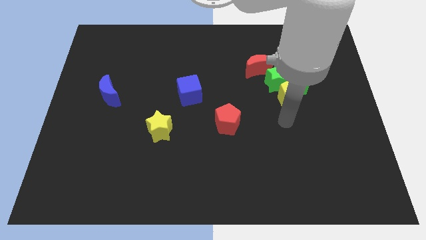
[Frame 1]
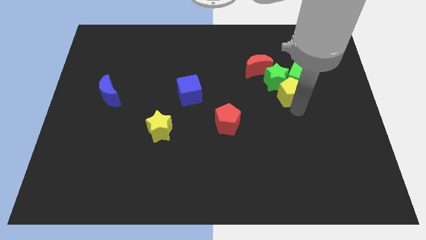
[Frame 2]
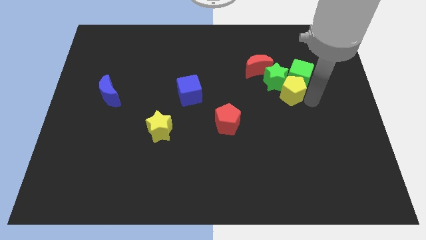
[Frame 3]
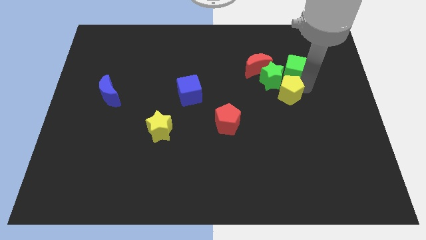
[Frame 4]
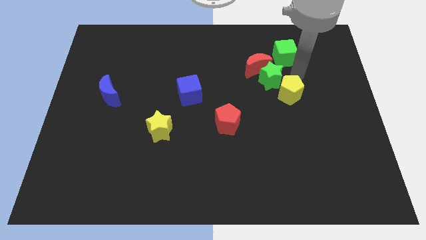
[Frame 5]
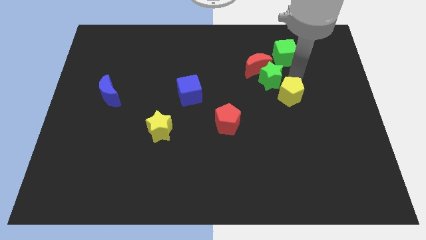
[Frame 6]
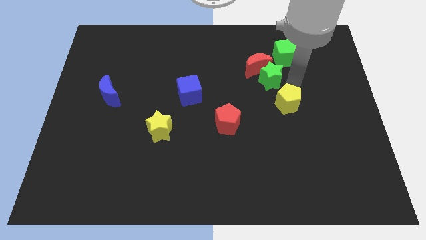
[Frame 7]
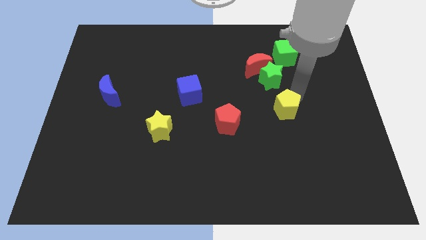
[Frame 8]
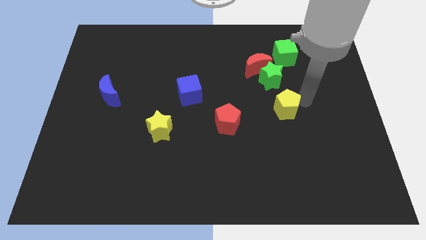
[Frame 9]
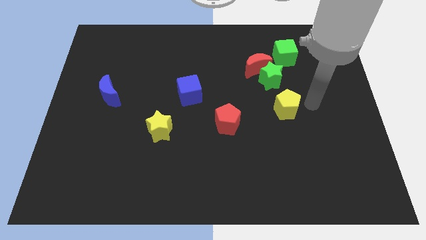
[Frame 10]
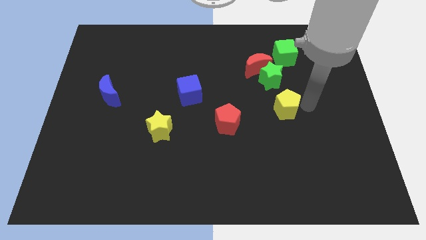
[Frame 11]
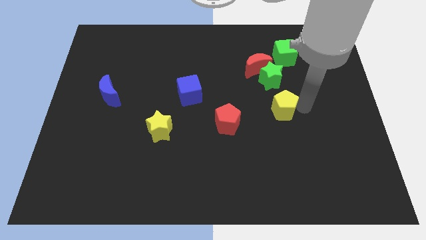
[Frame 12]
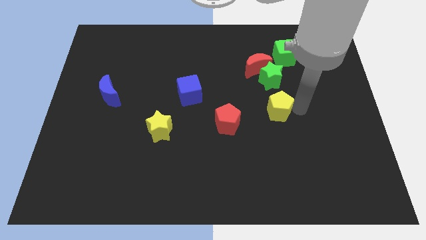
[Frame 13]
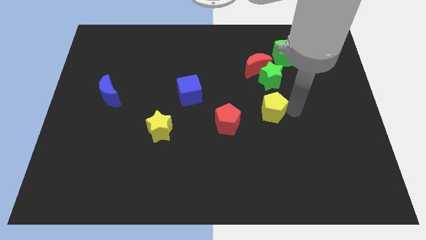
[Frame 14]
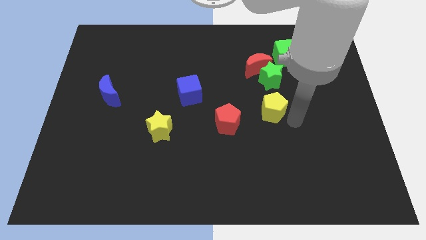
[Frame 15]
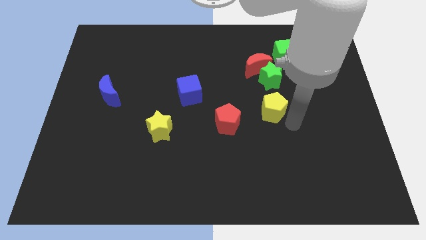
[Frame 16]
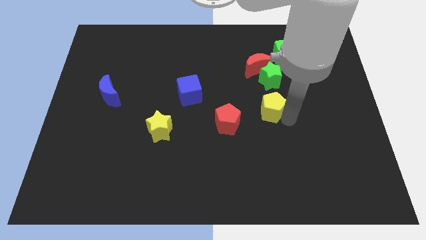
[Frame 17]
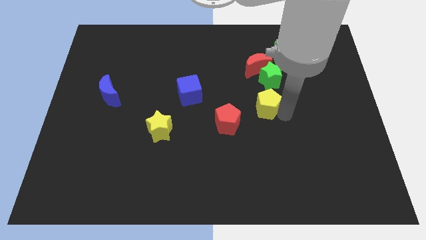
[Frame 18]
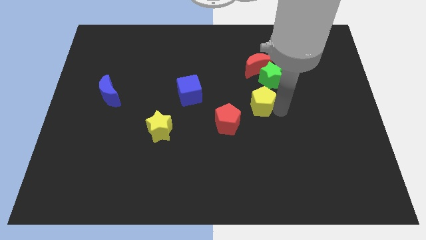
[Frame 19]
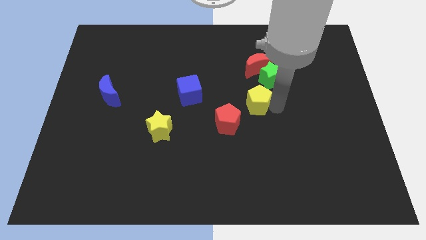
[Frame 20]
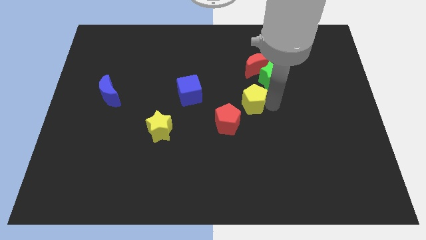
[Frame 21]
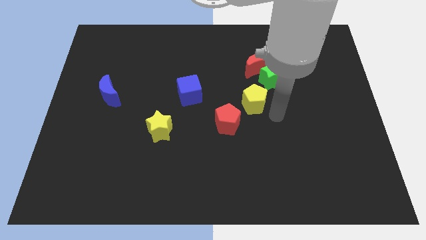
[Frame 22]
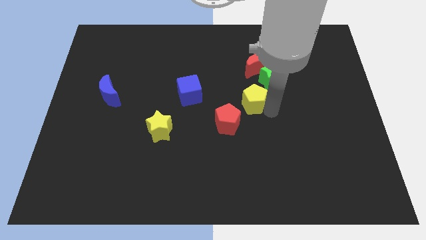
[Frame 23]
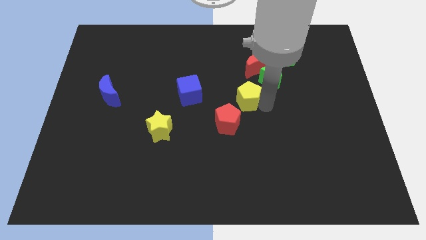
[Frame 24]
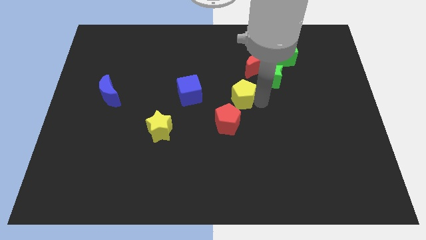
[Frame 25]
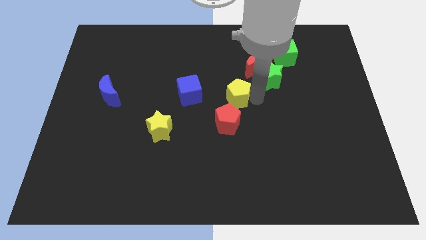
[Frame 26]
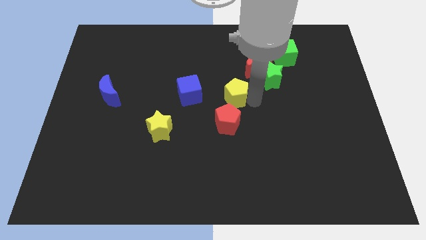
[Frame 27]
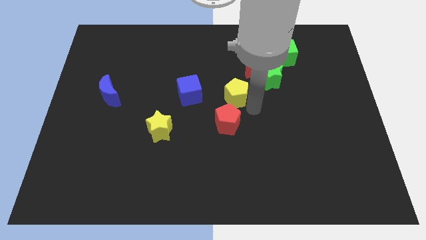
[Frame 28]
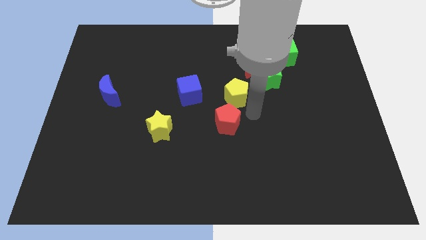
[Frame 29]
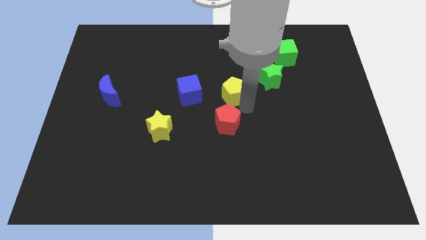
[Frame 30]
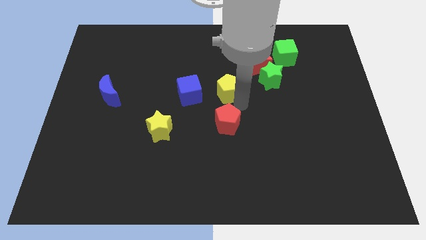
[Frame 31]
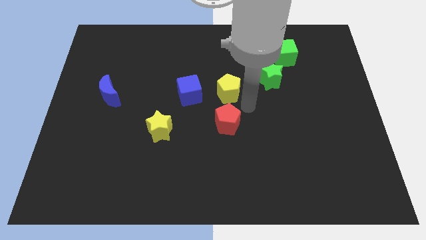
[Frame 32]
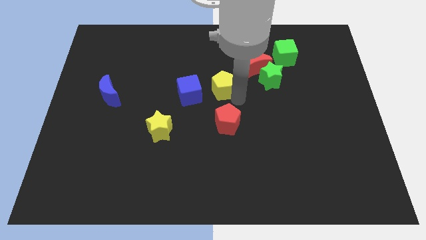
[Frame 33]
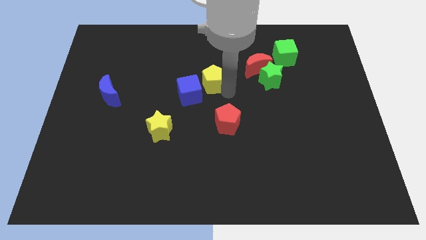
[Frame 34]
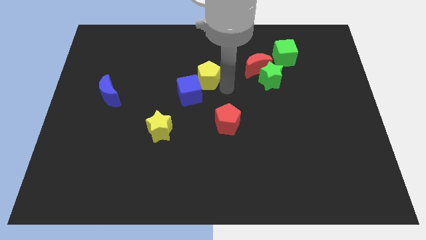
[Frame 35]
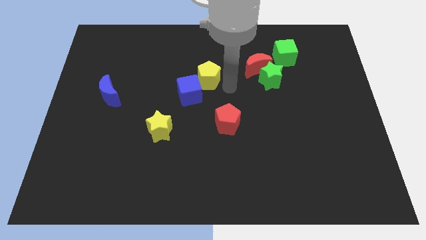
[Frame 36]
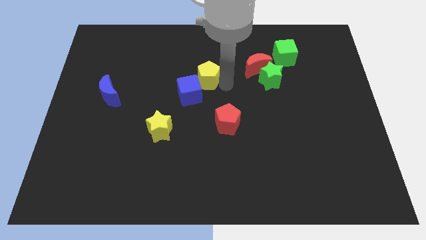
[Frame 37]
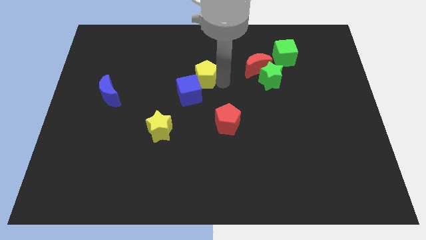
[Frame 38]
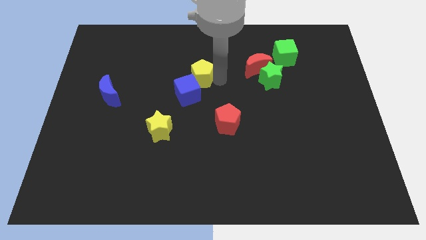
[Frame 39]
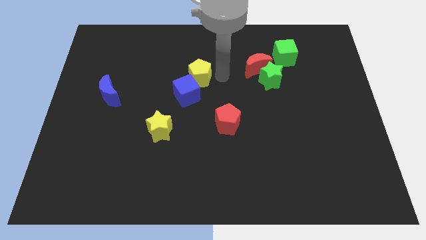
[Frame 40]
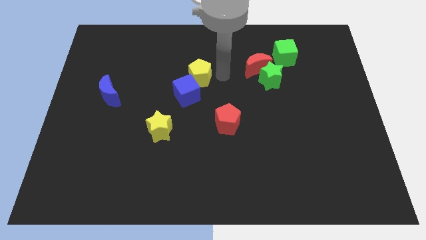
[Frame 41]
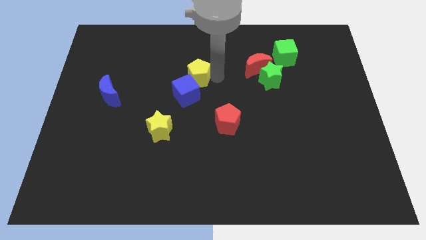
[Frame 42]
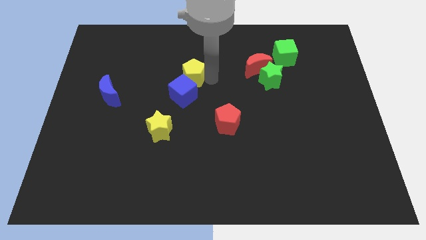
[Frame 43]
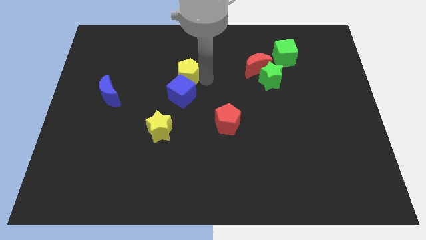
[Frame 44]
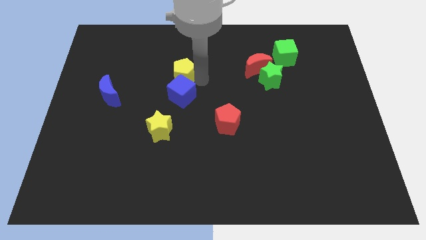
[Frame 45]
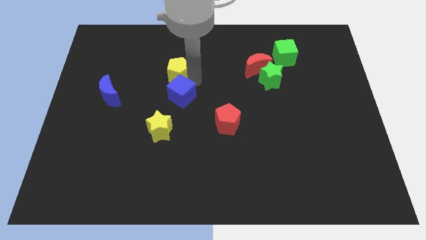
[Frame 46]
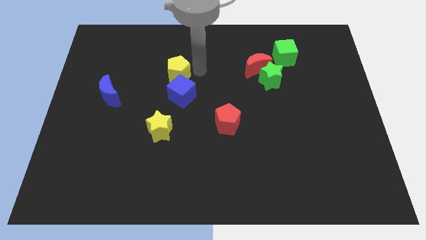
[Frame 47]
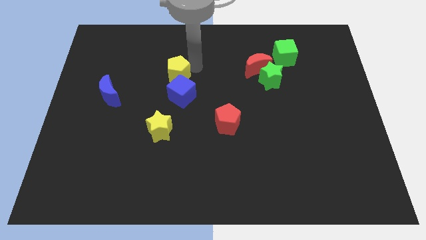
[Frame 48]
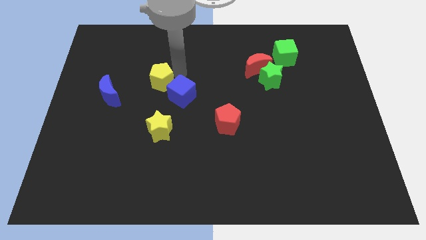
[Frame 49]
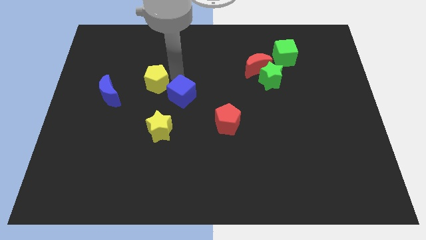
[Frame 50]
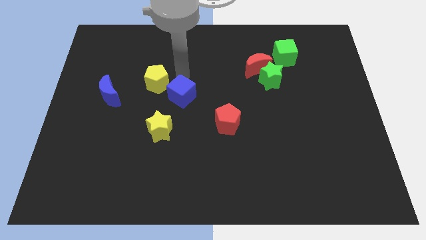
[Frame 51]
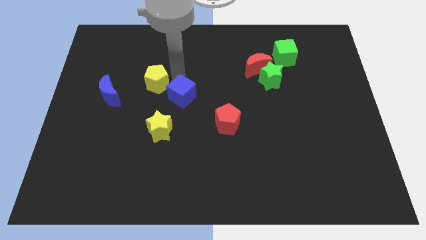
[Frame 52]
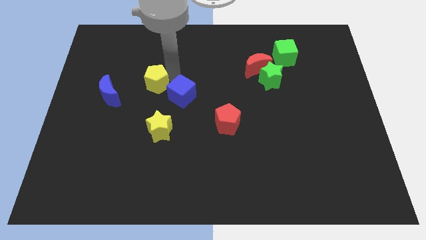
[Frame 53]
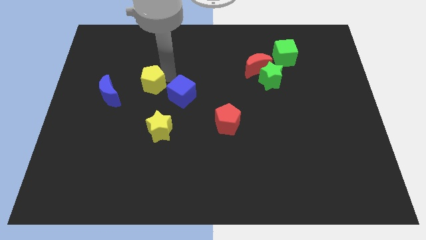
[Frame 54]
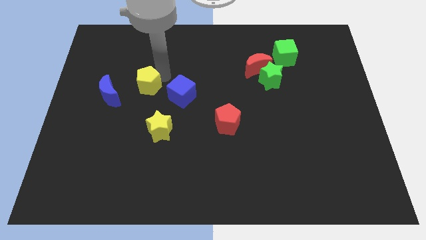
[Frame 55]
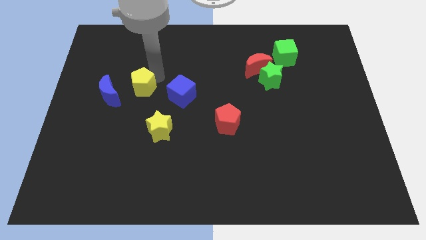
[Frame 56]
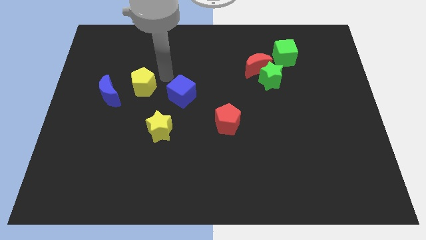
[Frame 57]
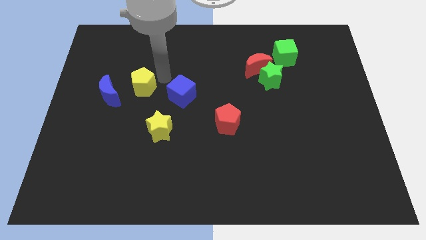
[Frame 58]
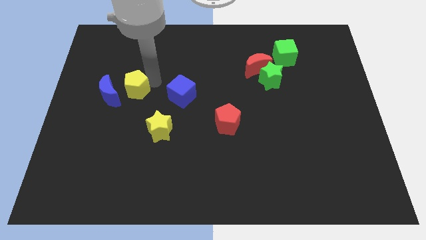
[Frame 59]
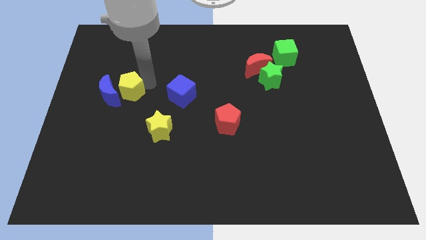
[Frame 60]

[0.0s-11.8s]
move the yellow pentagon to the blue moon
